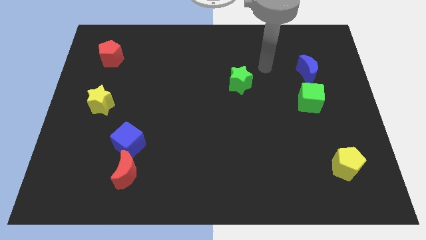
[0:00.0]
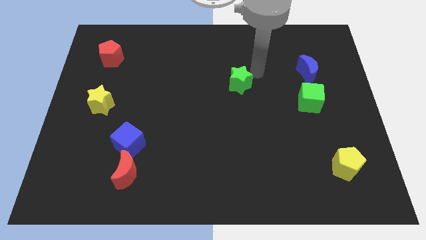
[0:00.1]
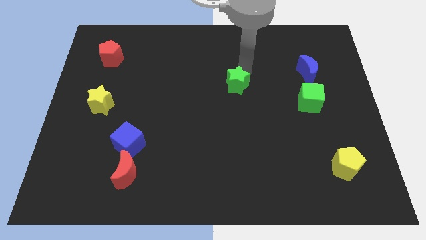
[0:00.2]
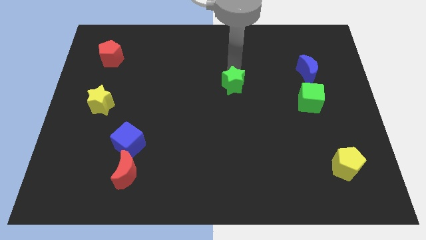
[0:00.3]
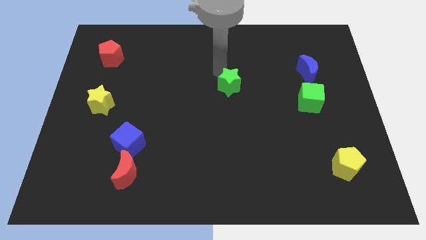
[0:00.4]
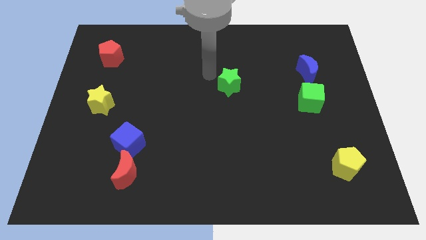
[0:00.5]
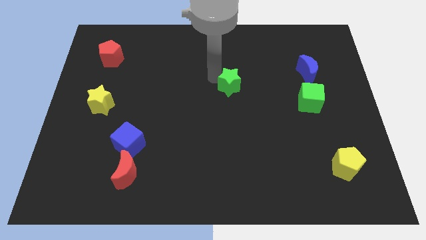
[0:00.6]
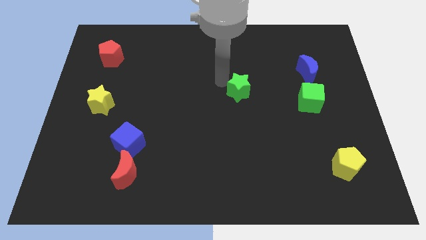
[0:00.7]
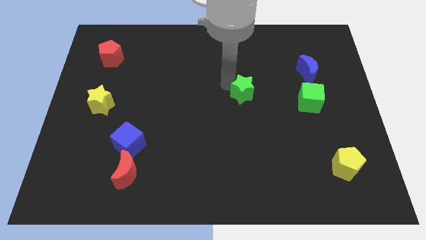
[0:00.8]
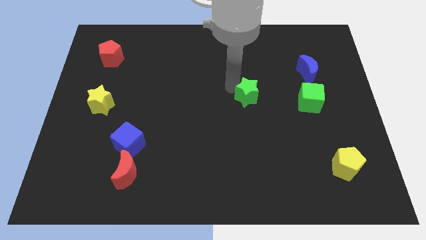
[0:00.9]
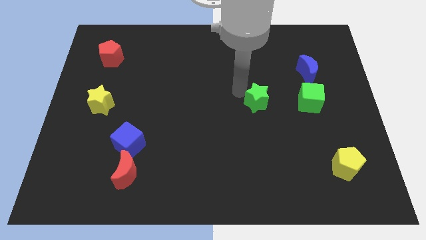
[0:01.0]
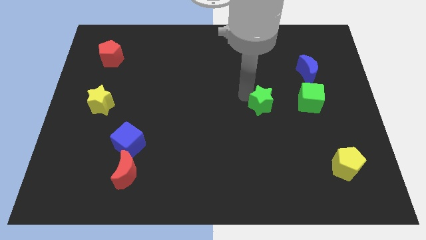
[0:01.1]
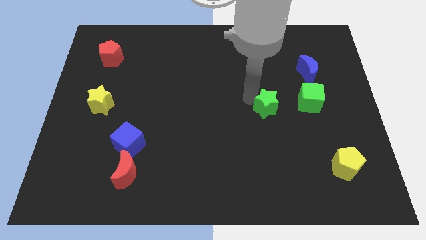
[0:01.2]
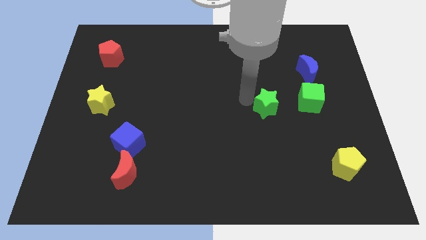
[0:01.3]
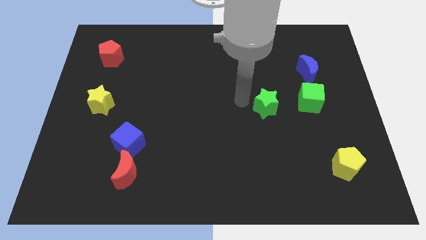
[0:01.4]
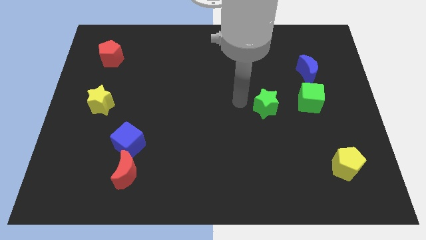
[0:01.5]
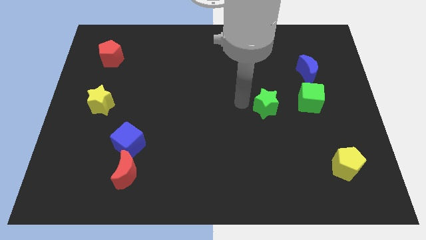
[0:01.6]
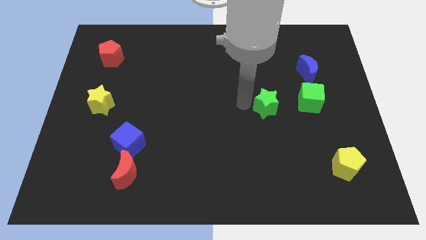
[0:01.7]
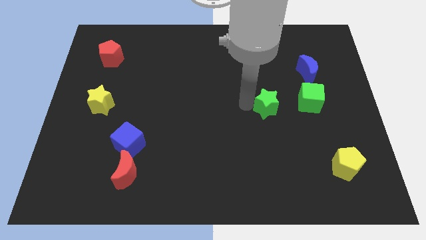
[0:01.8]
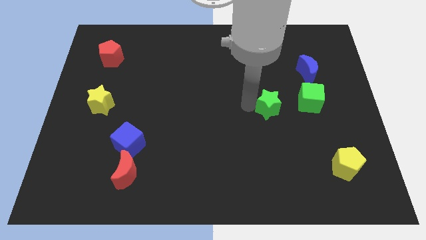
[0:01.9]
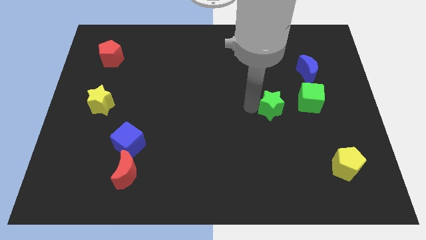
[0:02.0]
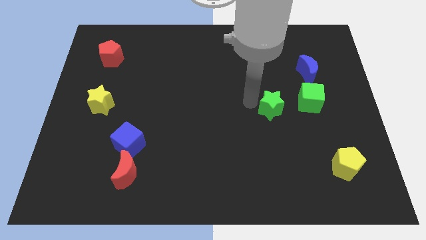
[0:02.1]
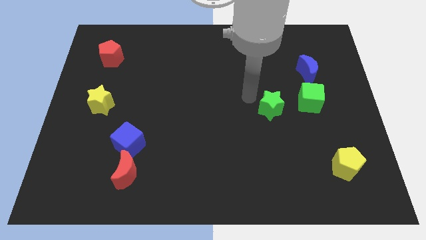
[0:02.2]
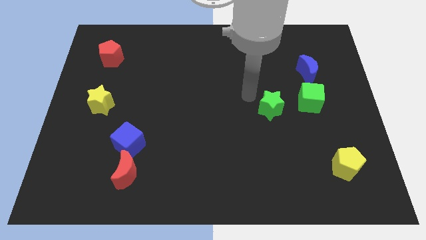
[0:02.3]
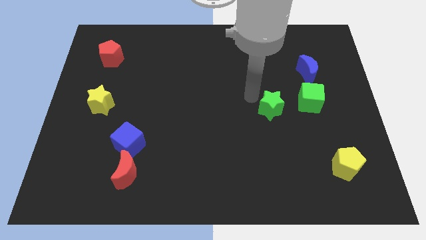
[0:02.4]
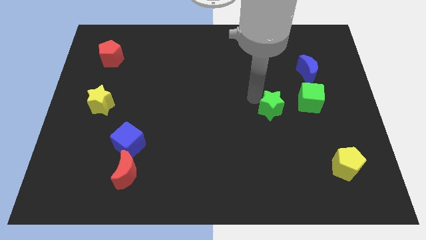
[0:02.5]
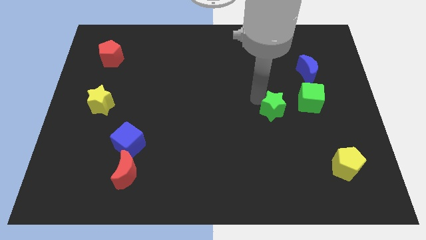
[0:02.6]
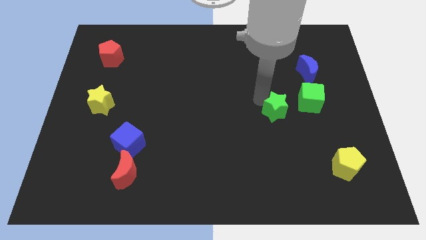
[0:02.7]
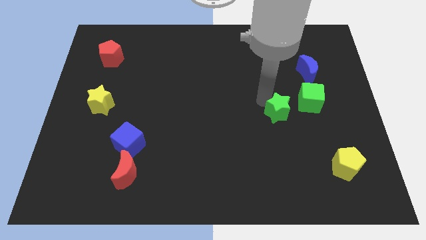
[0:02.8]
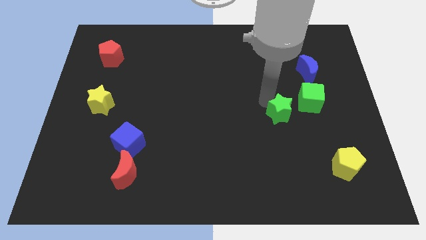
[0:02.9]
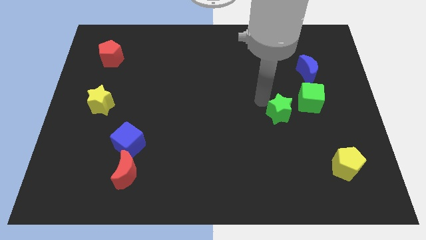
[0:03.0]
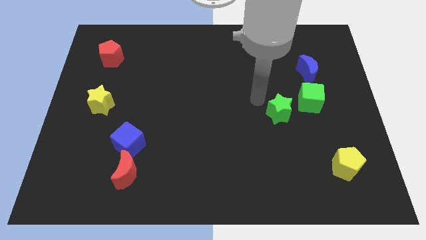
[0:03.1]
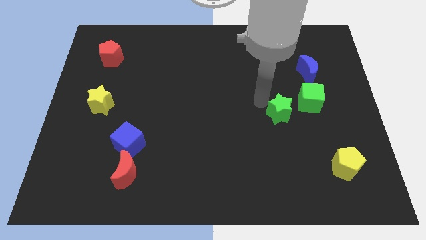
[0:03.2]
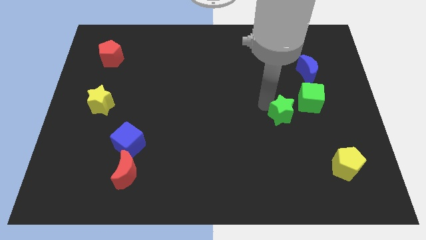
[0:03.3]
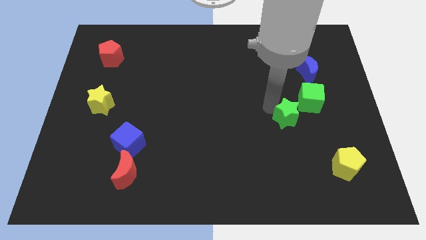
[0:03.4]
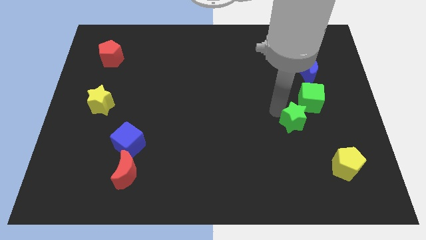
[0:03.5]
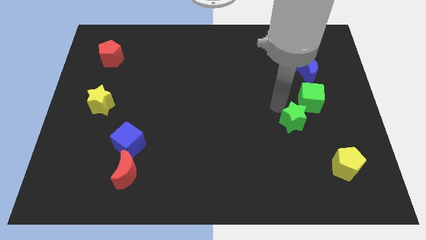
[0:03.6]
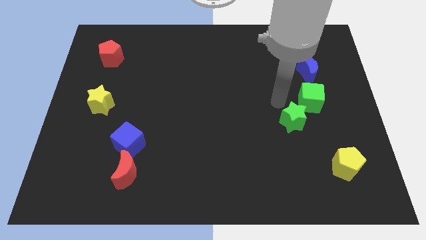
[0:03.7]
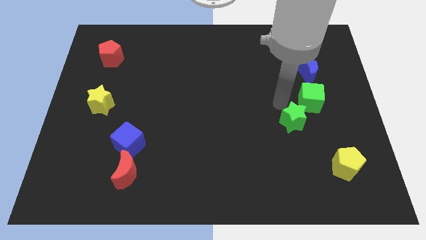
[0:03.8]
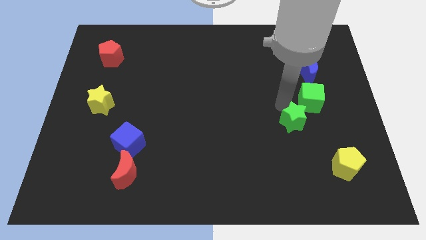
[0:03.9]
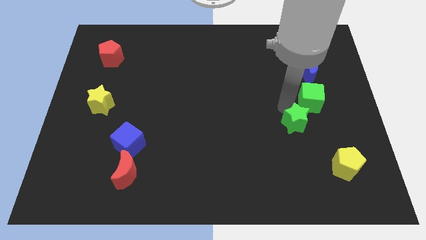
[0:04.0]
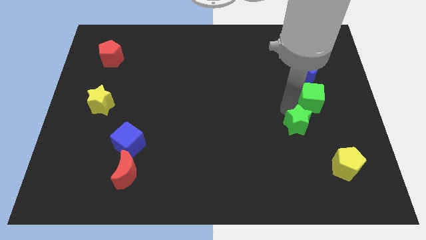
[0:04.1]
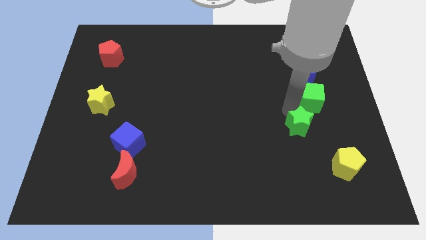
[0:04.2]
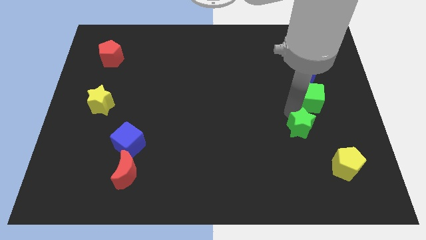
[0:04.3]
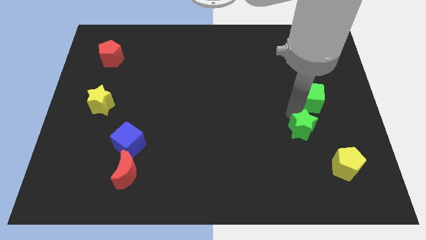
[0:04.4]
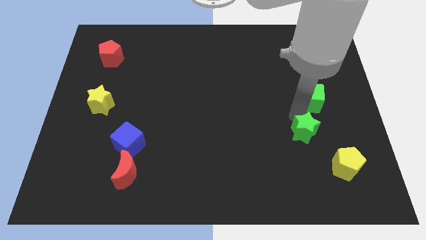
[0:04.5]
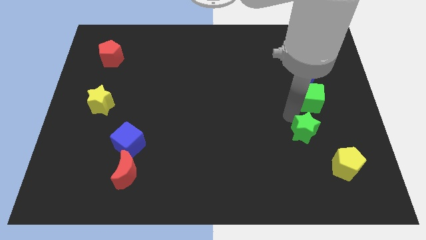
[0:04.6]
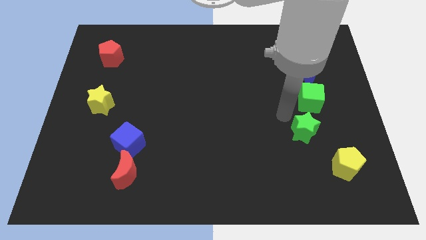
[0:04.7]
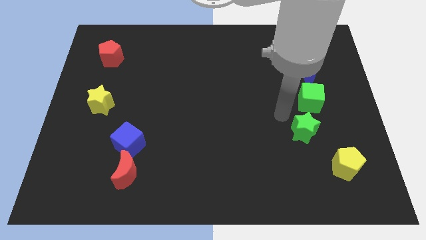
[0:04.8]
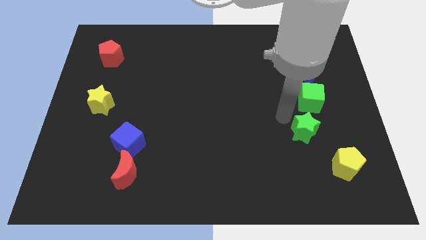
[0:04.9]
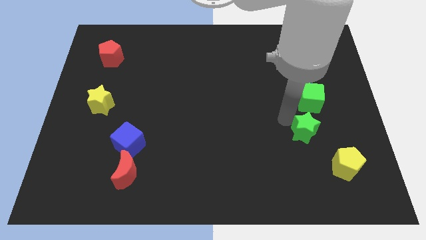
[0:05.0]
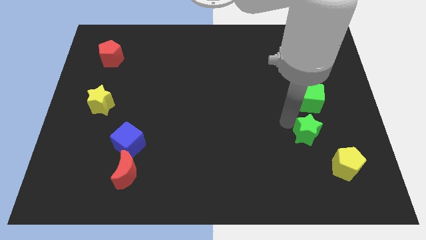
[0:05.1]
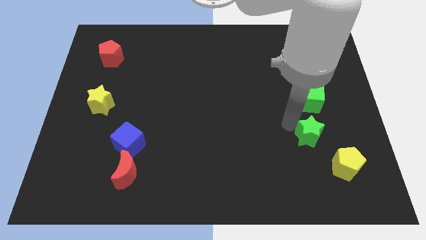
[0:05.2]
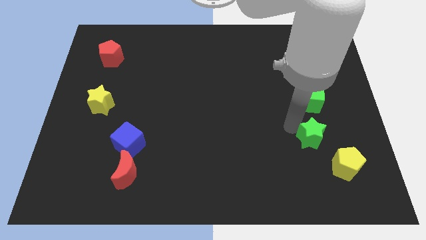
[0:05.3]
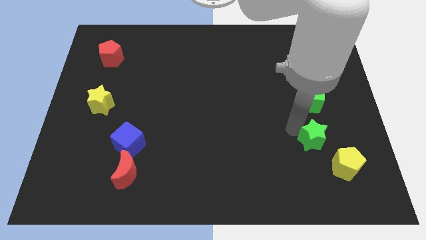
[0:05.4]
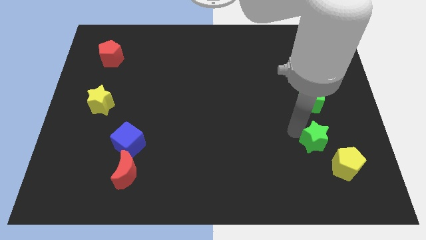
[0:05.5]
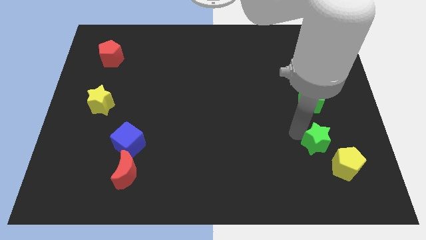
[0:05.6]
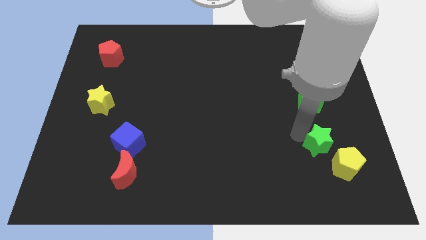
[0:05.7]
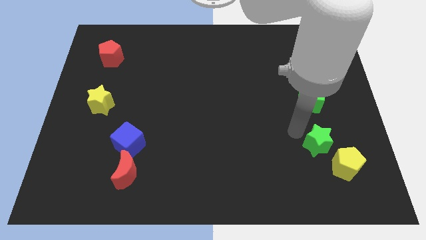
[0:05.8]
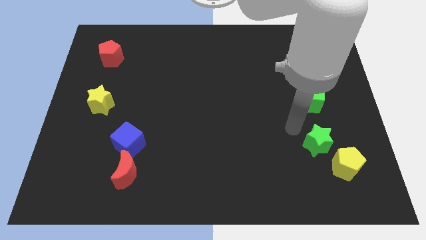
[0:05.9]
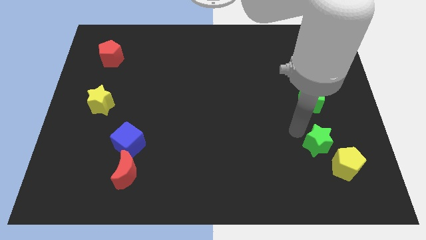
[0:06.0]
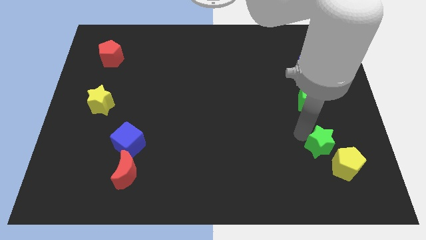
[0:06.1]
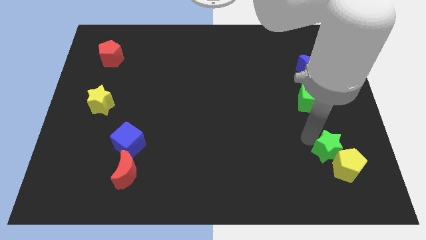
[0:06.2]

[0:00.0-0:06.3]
push the green star close to the yellow pentagon

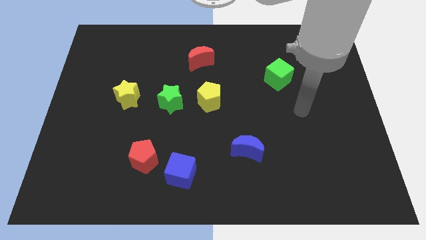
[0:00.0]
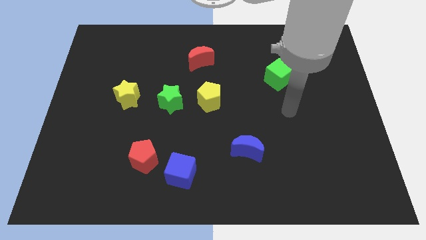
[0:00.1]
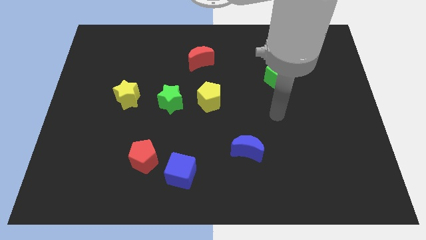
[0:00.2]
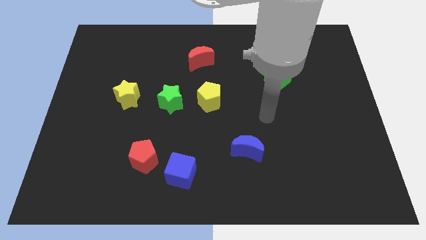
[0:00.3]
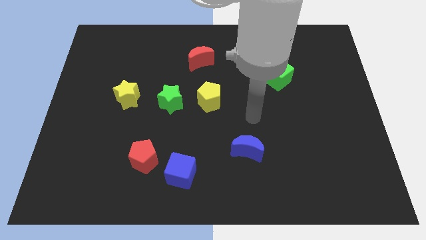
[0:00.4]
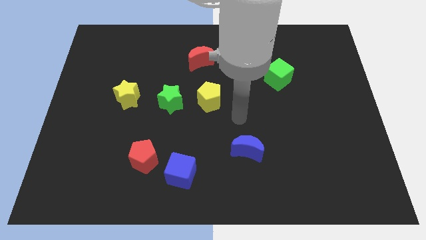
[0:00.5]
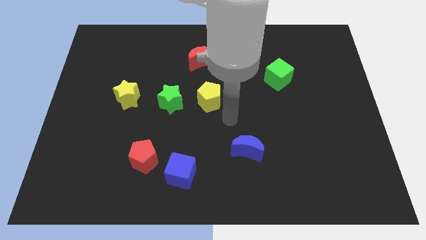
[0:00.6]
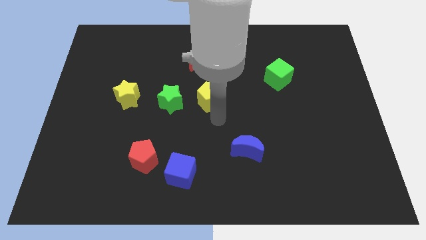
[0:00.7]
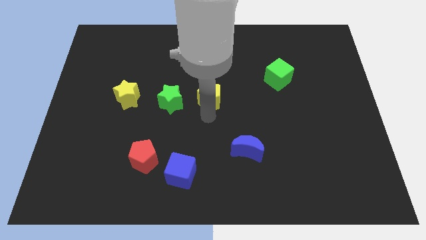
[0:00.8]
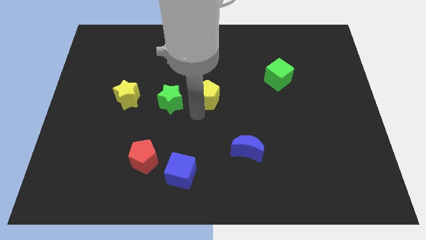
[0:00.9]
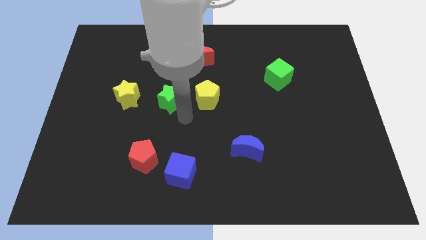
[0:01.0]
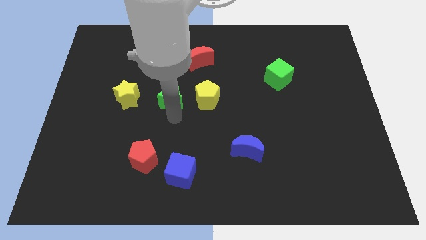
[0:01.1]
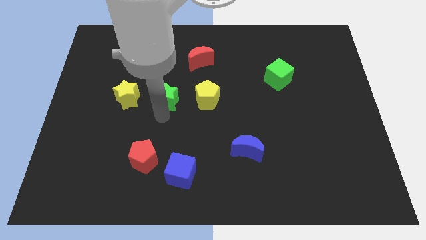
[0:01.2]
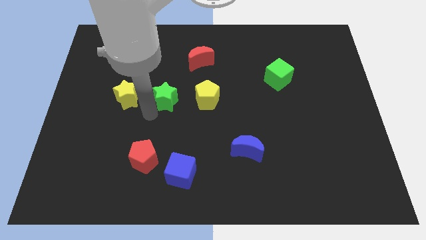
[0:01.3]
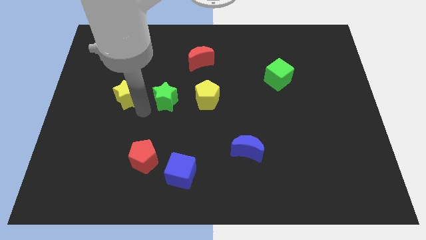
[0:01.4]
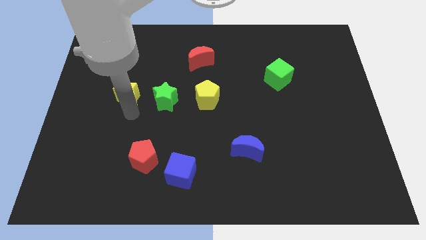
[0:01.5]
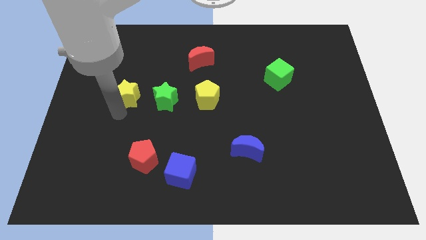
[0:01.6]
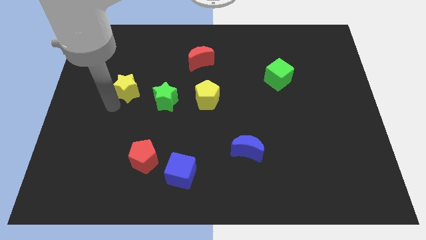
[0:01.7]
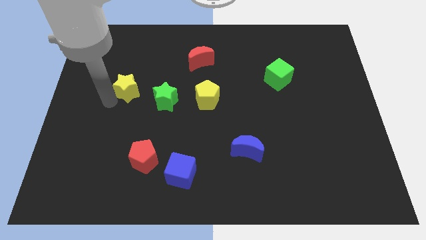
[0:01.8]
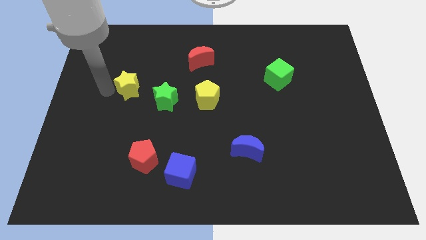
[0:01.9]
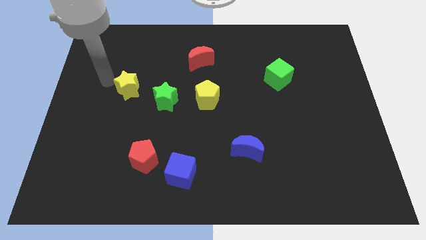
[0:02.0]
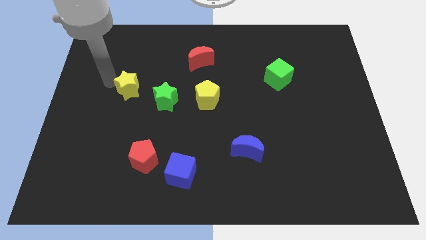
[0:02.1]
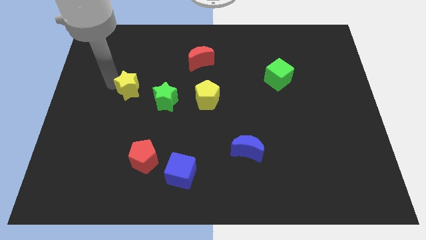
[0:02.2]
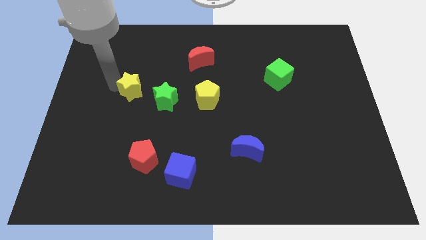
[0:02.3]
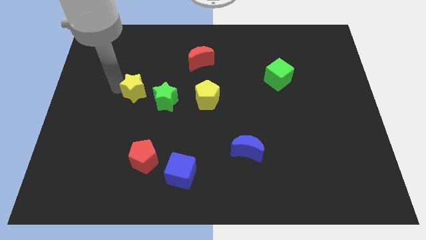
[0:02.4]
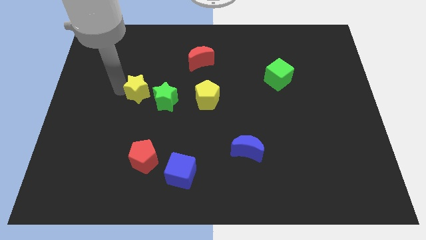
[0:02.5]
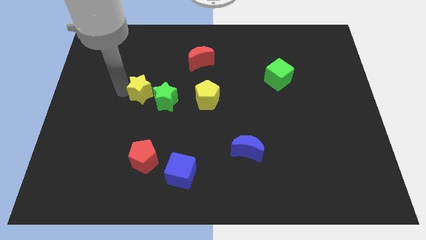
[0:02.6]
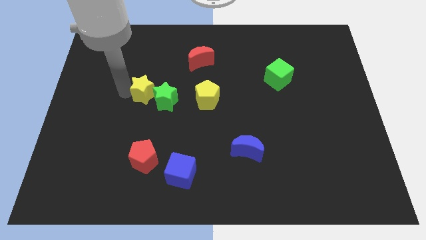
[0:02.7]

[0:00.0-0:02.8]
slide the yellow star close to the green star
